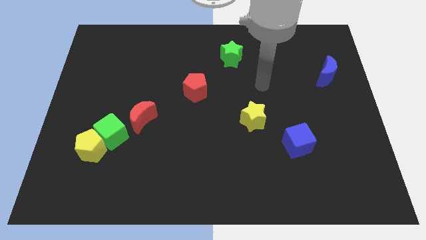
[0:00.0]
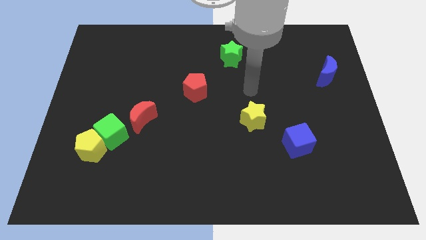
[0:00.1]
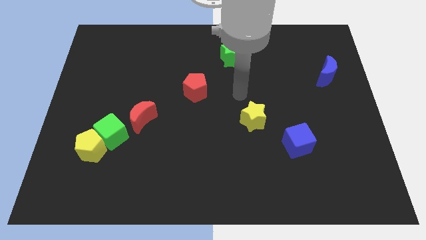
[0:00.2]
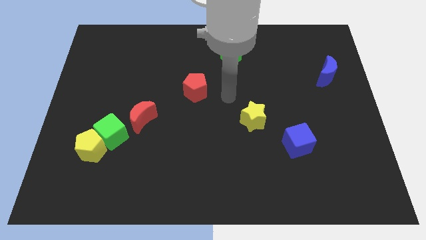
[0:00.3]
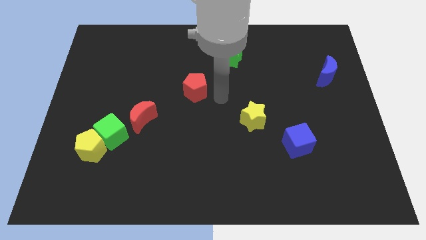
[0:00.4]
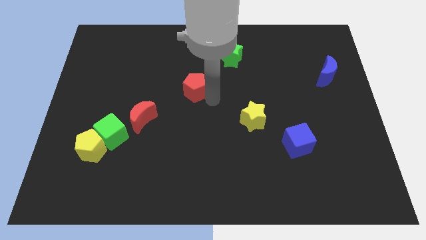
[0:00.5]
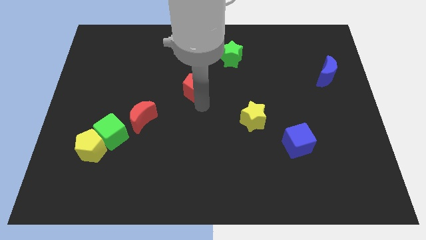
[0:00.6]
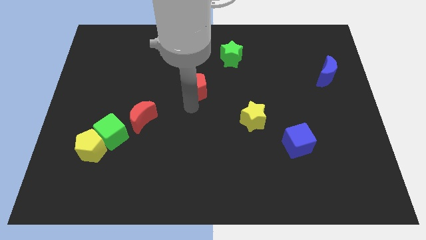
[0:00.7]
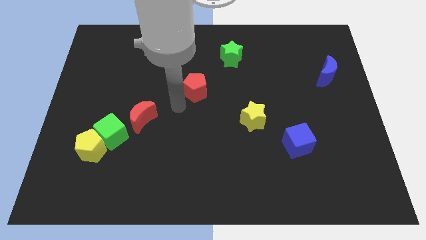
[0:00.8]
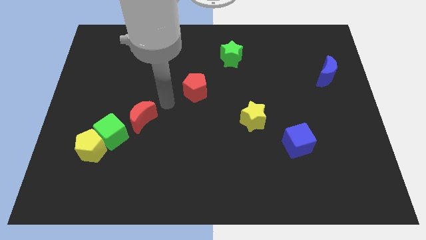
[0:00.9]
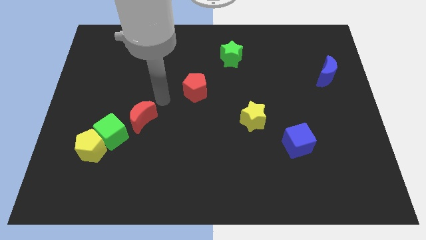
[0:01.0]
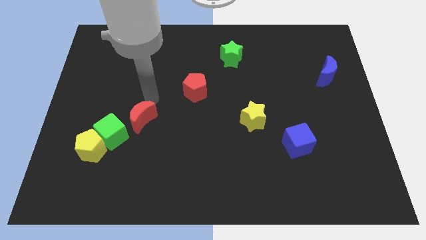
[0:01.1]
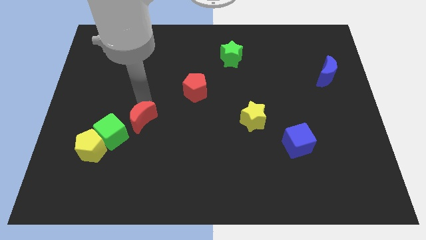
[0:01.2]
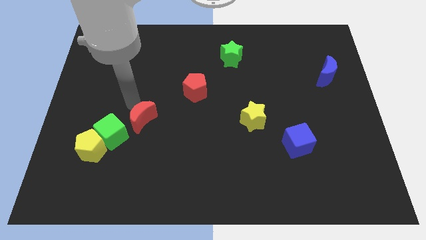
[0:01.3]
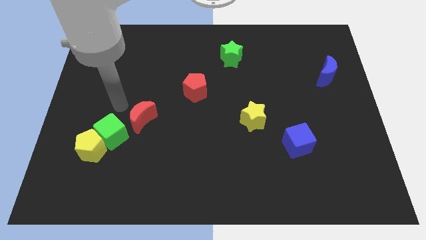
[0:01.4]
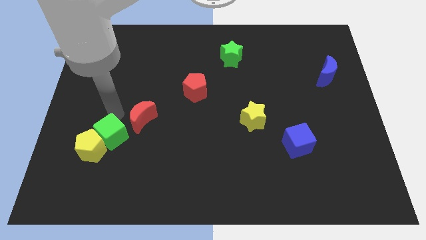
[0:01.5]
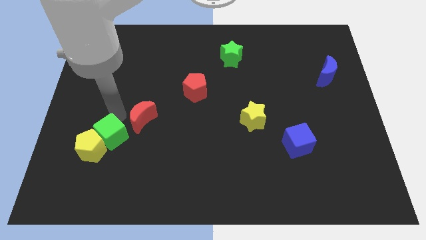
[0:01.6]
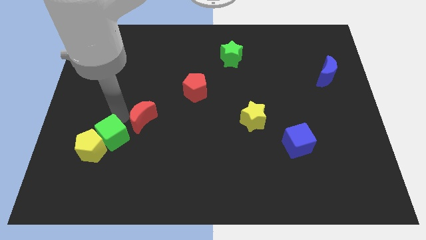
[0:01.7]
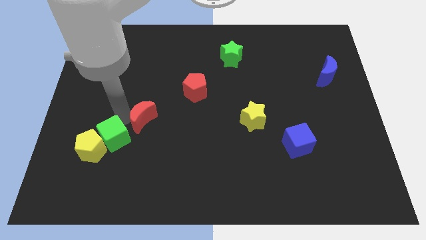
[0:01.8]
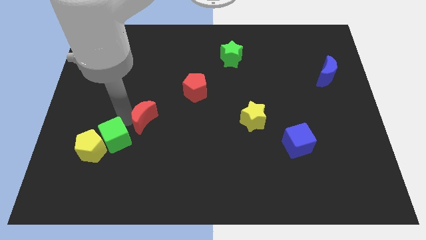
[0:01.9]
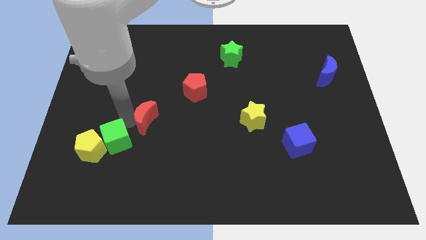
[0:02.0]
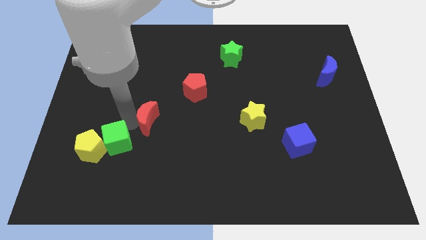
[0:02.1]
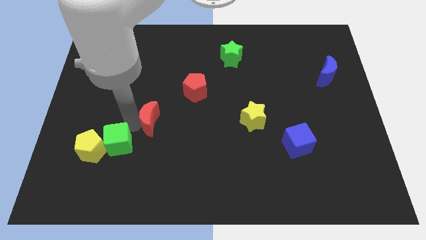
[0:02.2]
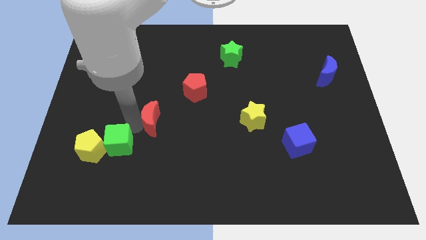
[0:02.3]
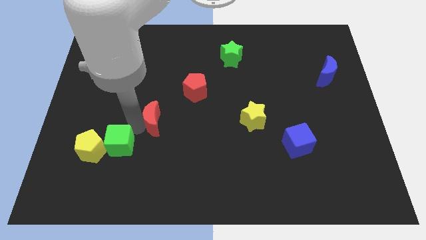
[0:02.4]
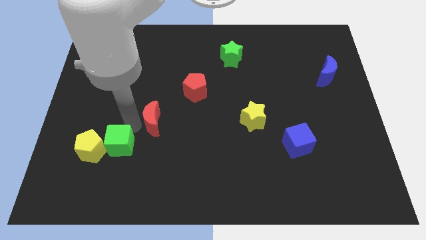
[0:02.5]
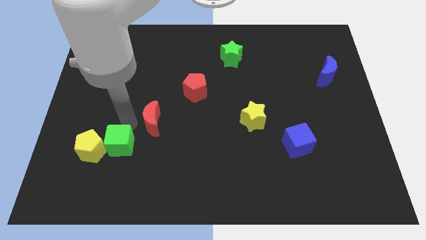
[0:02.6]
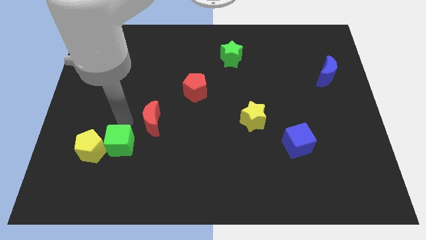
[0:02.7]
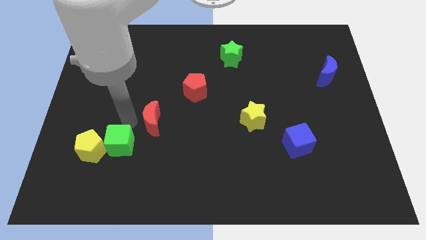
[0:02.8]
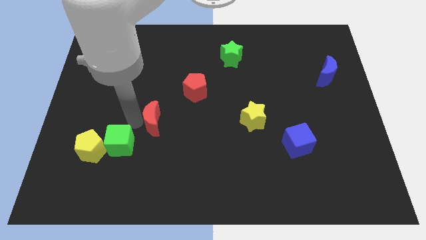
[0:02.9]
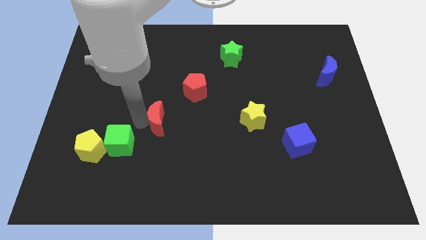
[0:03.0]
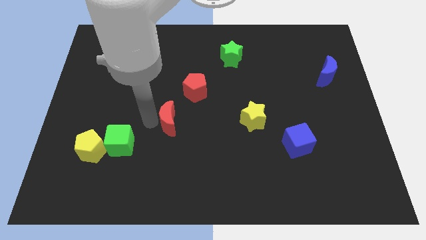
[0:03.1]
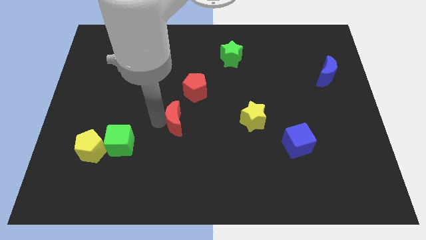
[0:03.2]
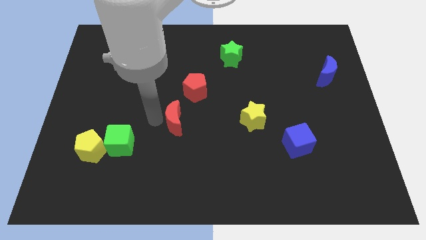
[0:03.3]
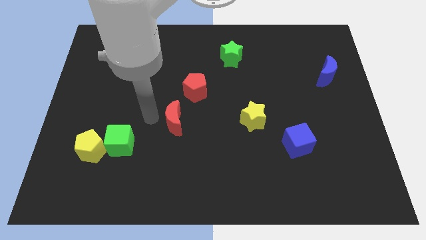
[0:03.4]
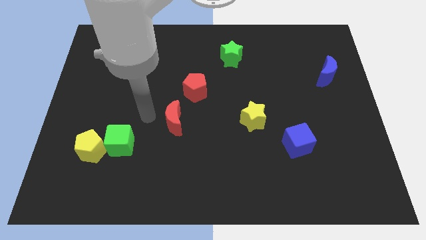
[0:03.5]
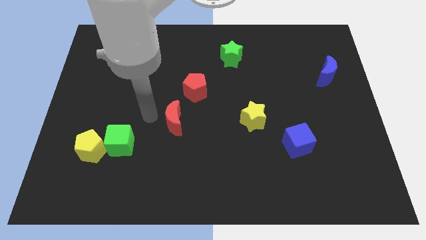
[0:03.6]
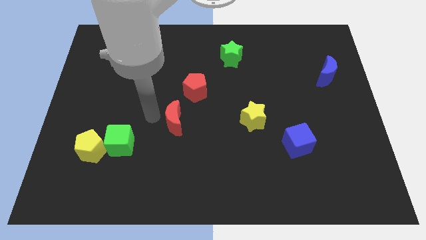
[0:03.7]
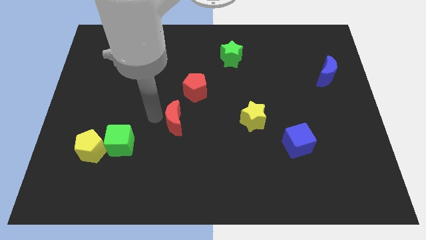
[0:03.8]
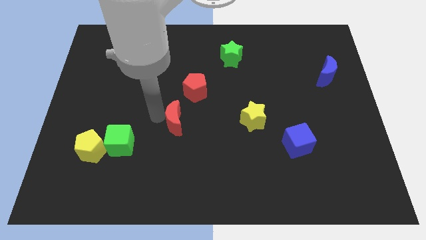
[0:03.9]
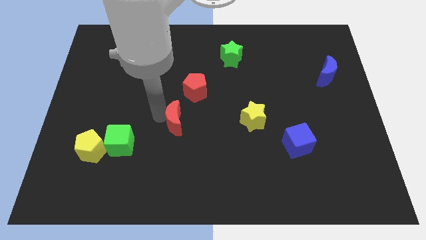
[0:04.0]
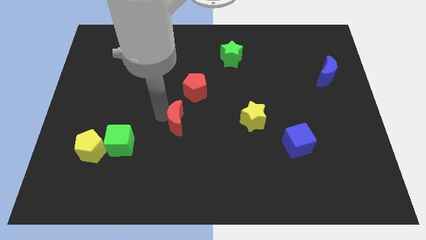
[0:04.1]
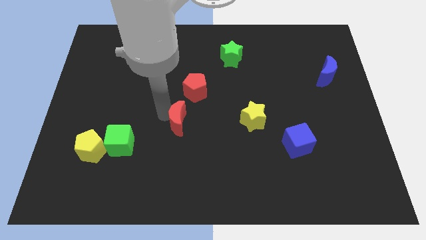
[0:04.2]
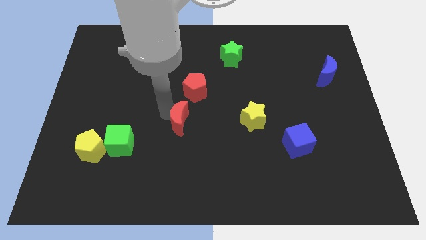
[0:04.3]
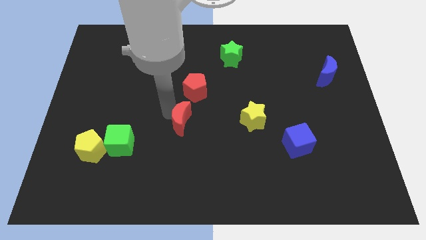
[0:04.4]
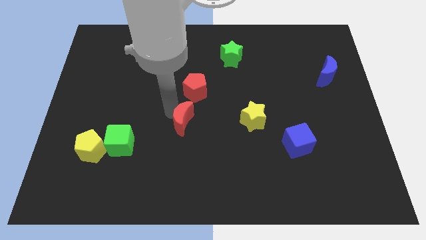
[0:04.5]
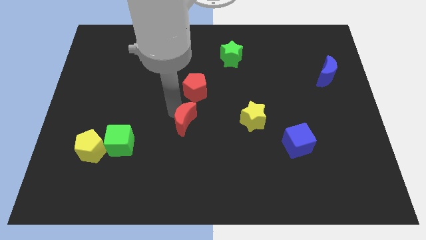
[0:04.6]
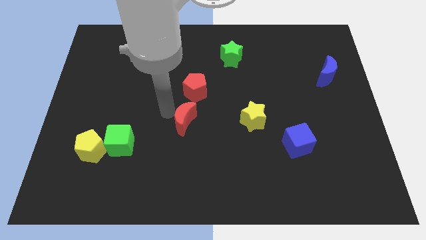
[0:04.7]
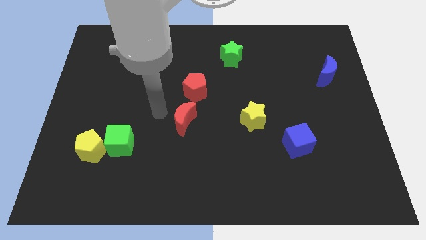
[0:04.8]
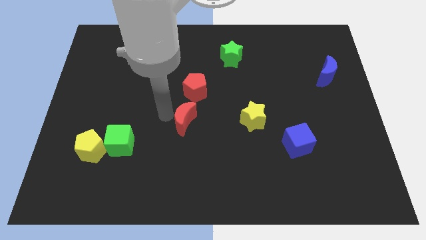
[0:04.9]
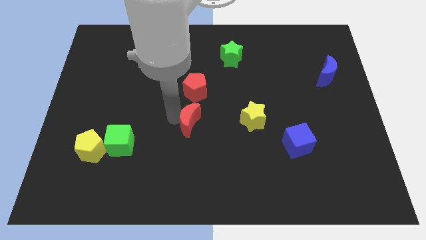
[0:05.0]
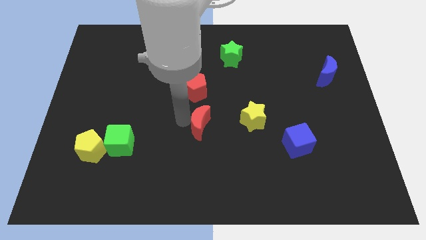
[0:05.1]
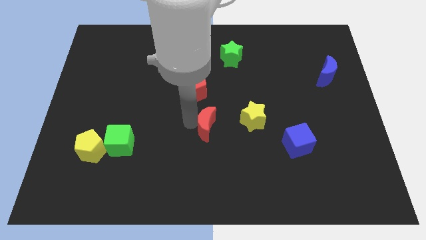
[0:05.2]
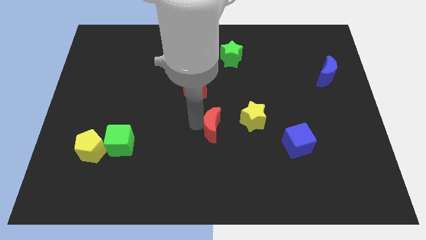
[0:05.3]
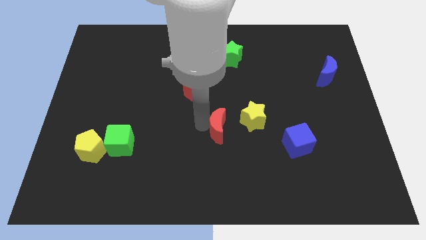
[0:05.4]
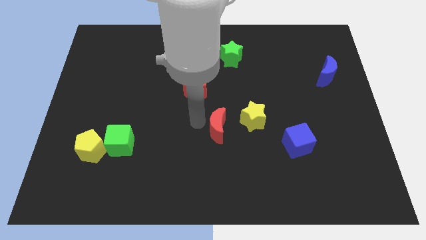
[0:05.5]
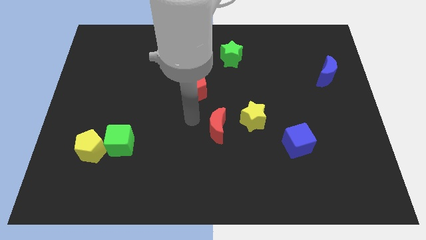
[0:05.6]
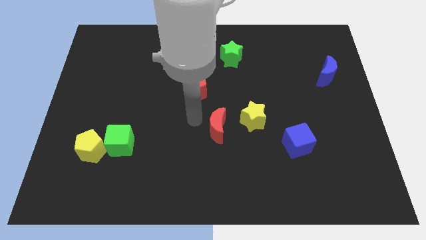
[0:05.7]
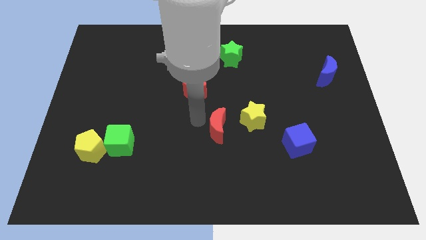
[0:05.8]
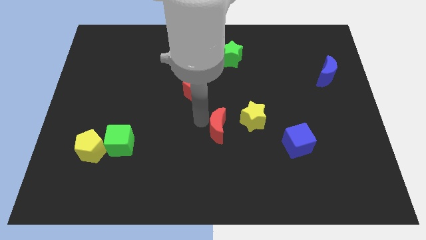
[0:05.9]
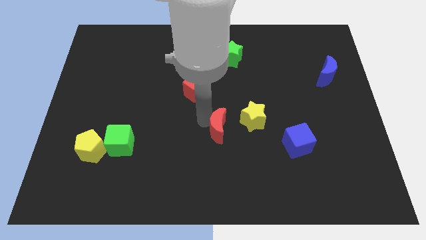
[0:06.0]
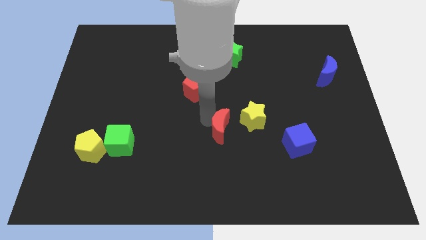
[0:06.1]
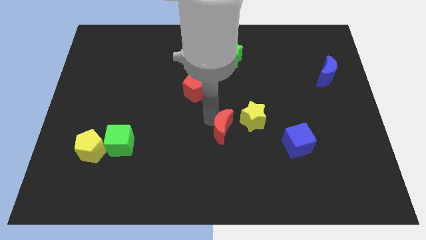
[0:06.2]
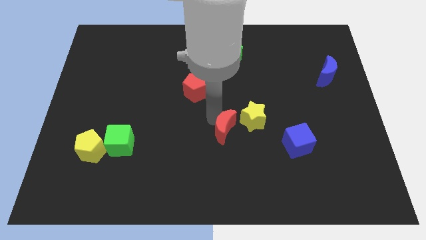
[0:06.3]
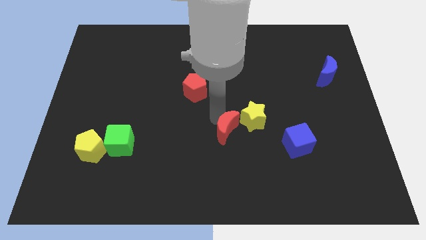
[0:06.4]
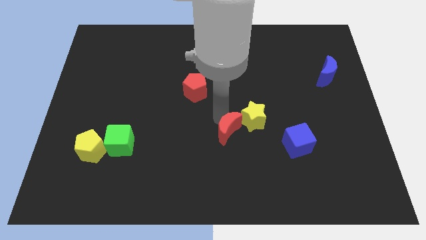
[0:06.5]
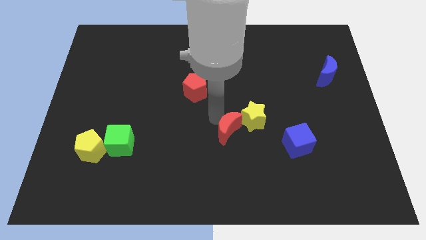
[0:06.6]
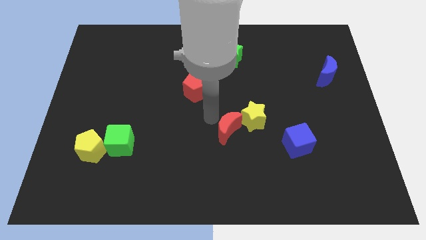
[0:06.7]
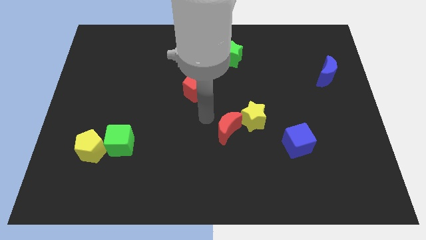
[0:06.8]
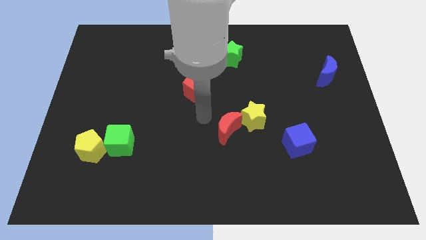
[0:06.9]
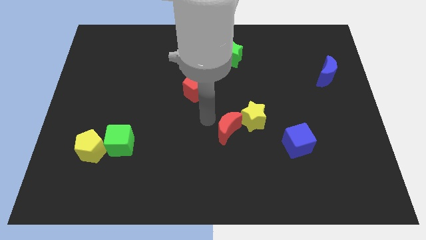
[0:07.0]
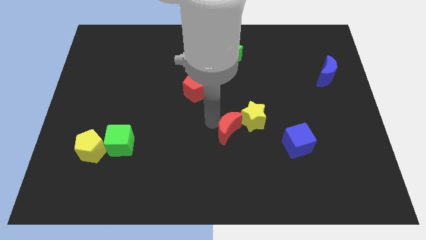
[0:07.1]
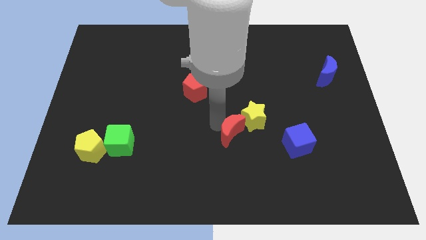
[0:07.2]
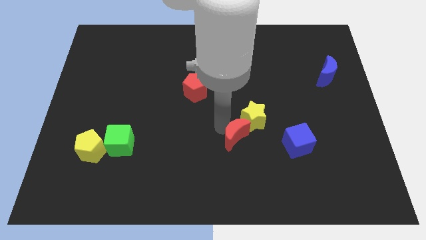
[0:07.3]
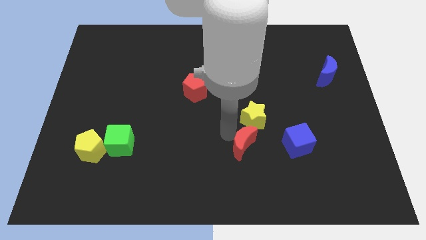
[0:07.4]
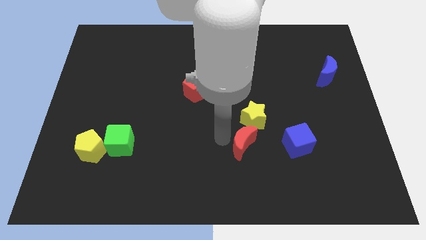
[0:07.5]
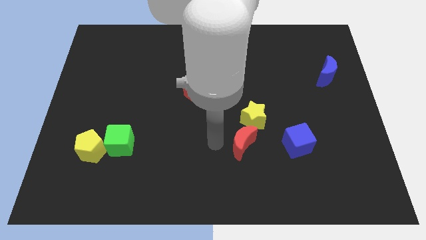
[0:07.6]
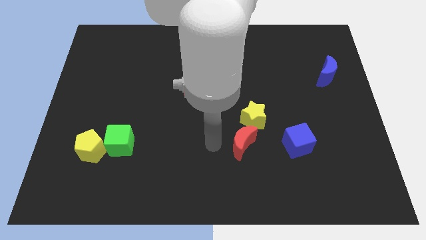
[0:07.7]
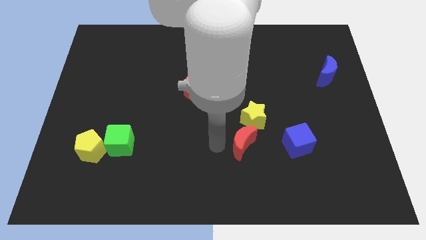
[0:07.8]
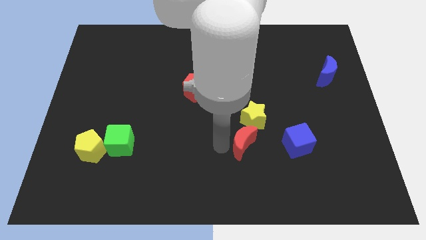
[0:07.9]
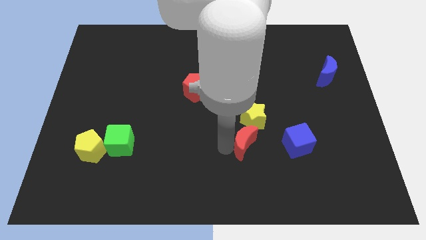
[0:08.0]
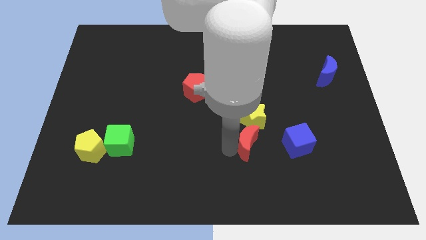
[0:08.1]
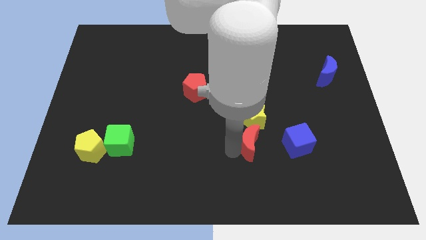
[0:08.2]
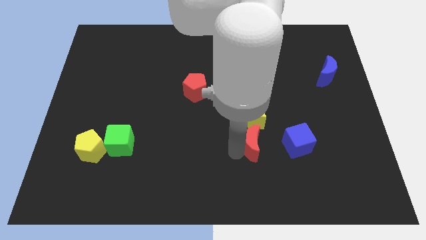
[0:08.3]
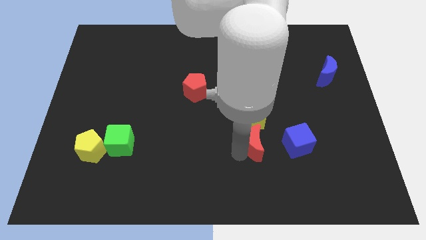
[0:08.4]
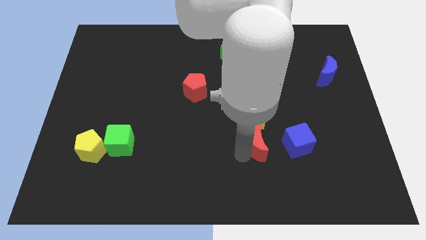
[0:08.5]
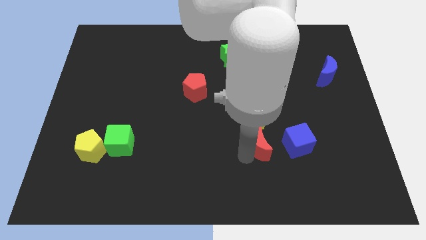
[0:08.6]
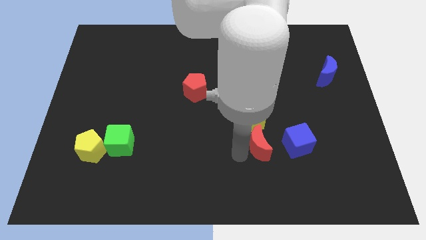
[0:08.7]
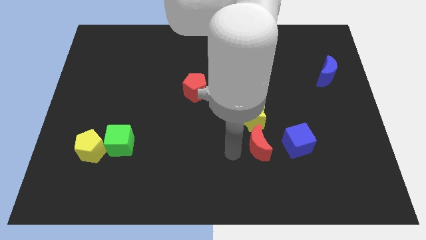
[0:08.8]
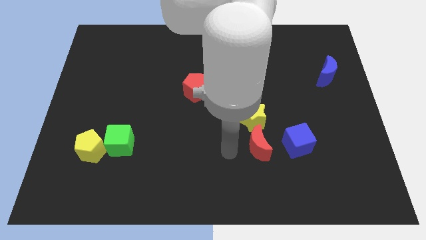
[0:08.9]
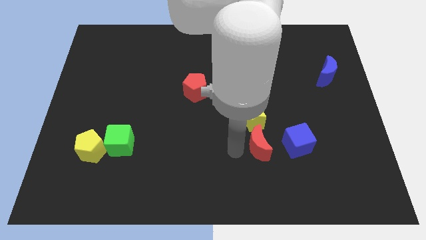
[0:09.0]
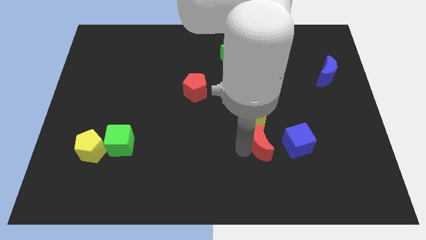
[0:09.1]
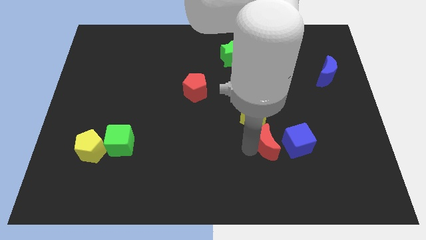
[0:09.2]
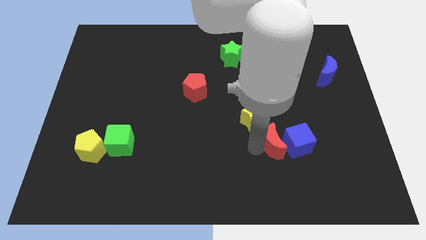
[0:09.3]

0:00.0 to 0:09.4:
put the red moon to the blue cube
